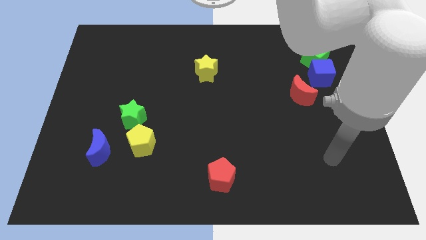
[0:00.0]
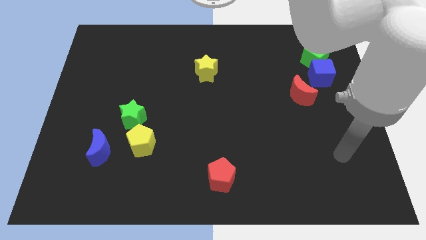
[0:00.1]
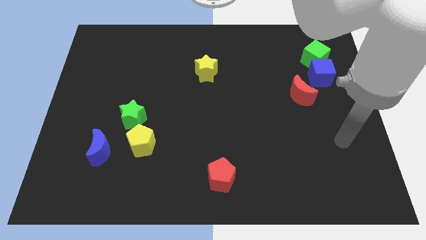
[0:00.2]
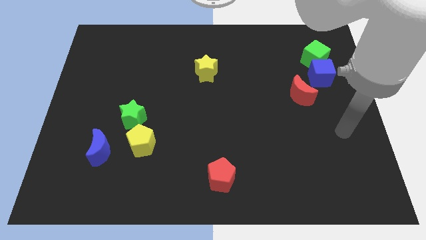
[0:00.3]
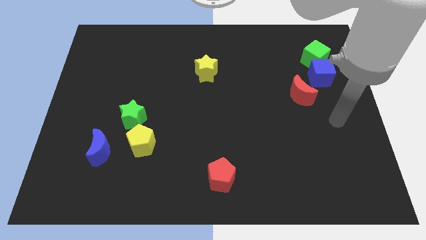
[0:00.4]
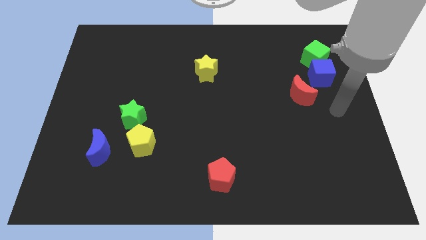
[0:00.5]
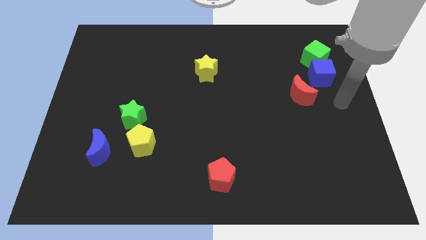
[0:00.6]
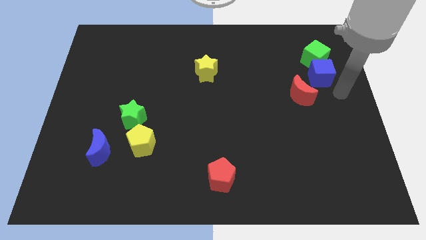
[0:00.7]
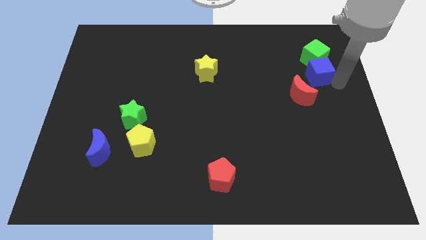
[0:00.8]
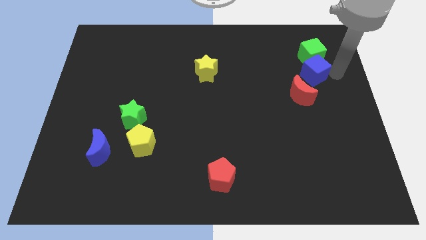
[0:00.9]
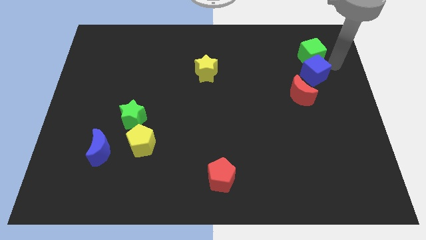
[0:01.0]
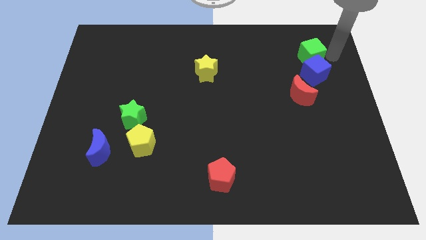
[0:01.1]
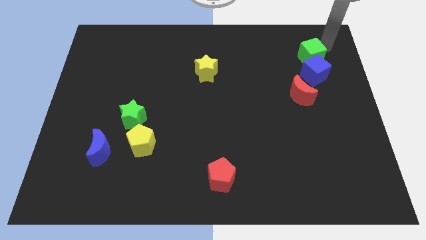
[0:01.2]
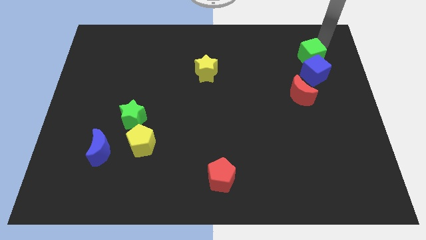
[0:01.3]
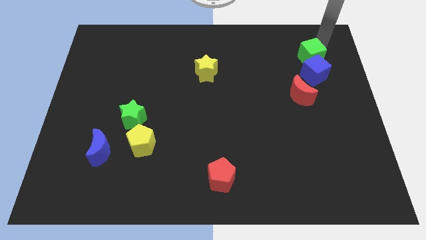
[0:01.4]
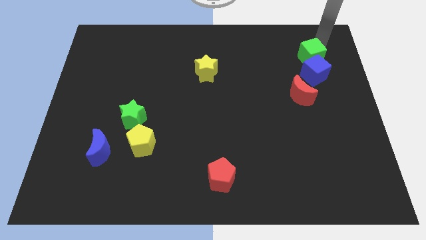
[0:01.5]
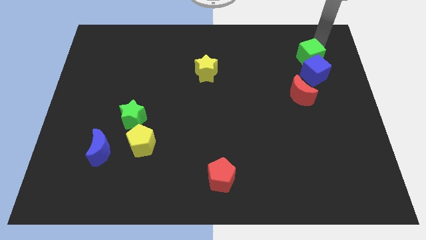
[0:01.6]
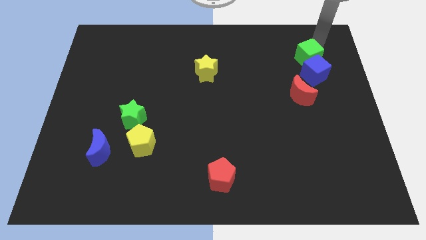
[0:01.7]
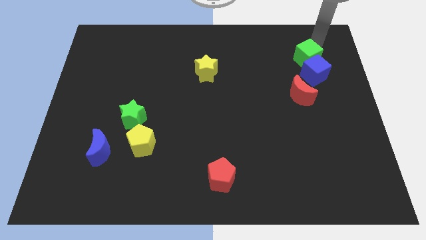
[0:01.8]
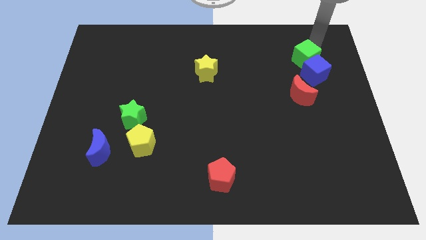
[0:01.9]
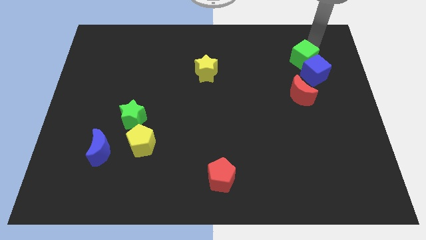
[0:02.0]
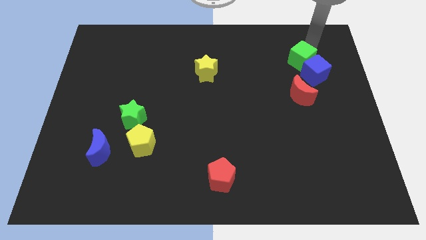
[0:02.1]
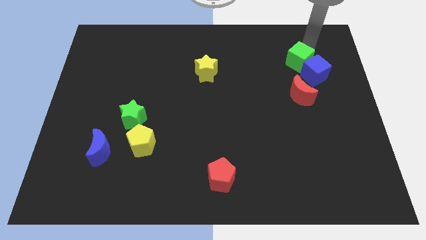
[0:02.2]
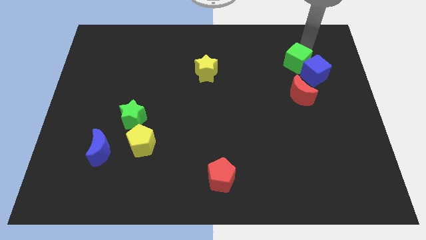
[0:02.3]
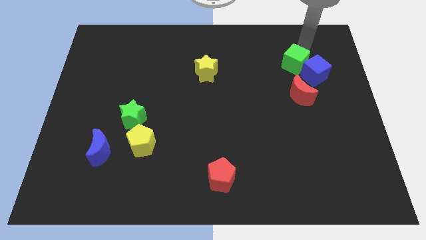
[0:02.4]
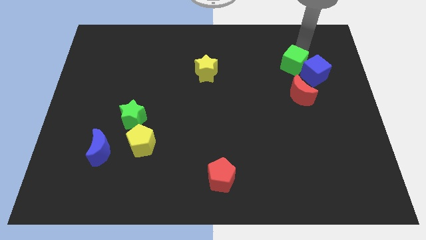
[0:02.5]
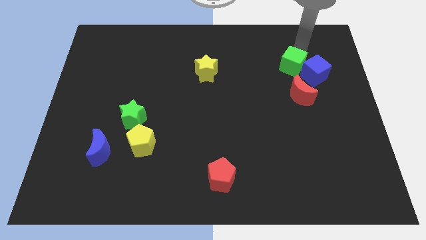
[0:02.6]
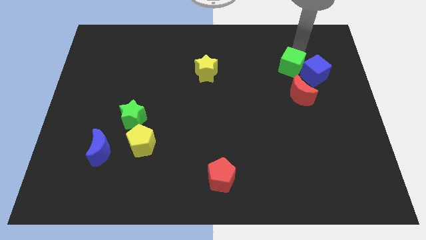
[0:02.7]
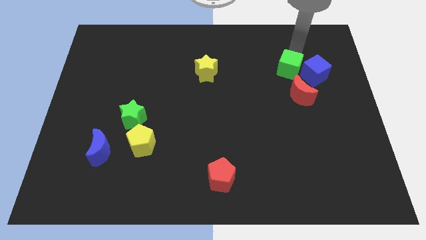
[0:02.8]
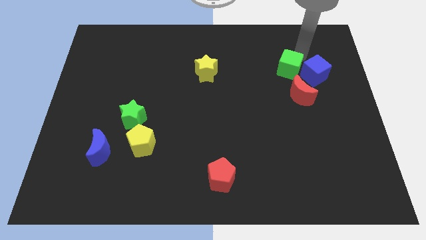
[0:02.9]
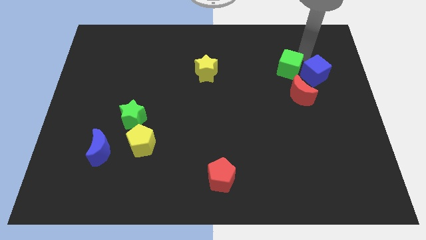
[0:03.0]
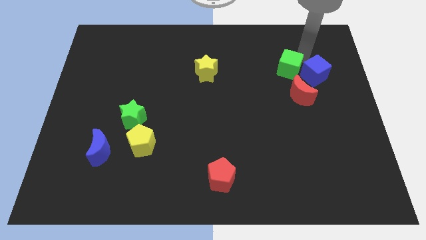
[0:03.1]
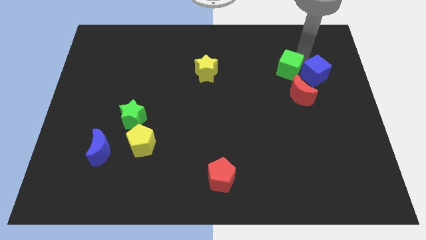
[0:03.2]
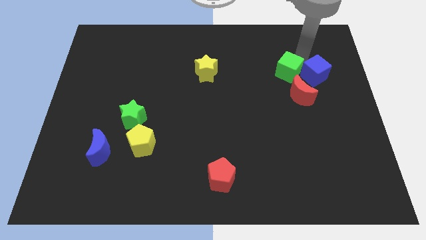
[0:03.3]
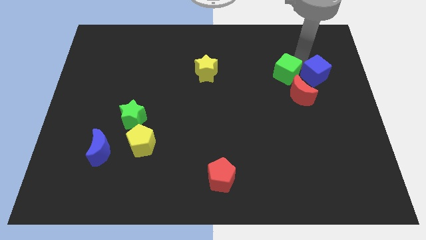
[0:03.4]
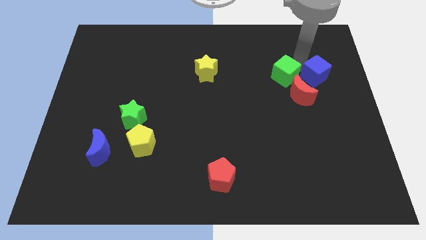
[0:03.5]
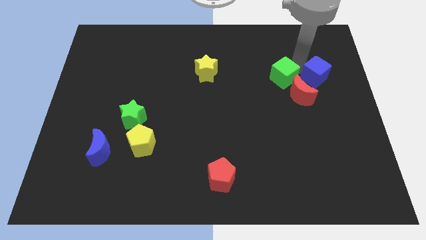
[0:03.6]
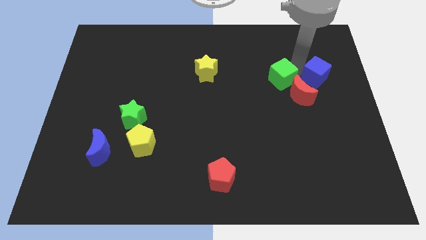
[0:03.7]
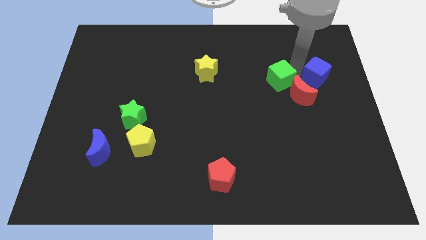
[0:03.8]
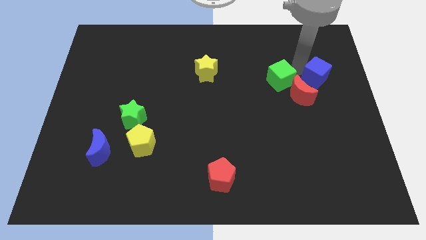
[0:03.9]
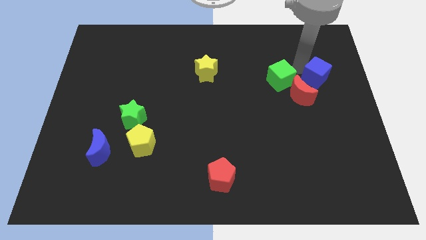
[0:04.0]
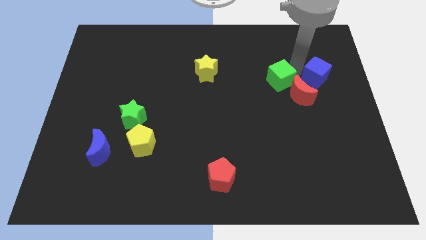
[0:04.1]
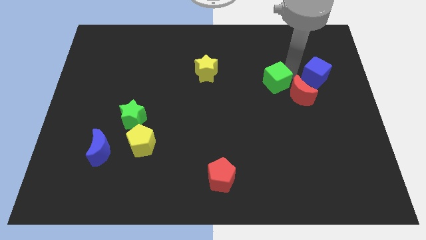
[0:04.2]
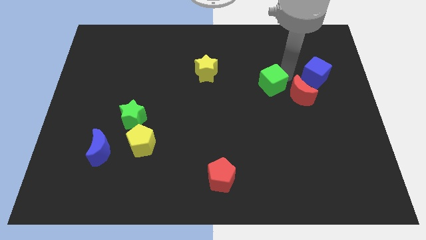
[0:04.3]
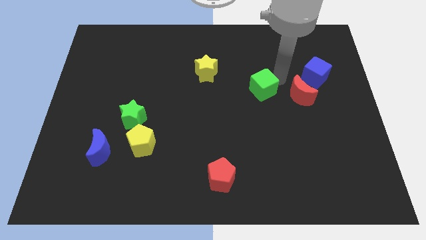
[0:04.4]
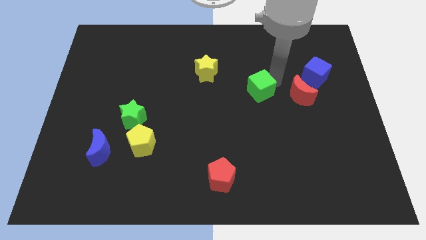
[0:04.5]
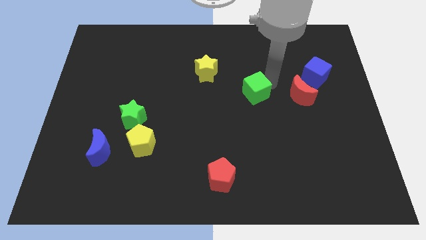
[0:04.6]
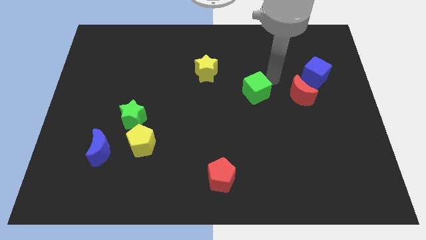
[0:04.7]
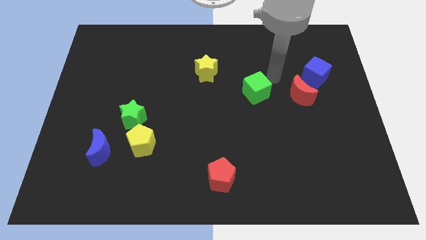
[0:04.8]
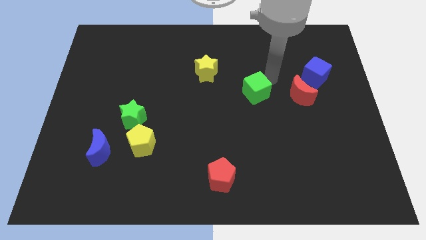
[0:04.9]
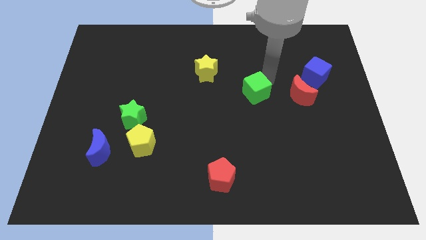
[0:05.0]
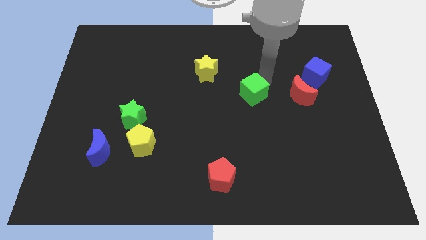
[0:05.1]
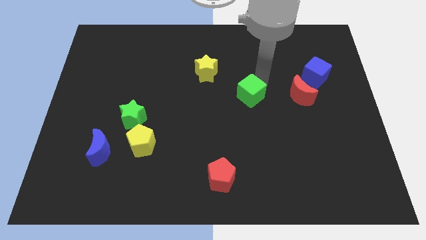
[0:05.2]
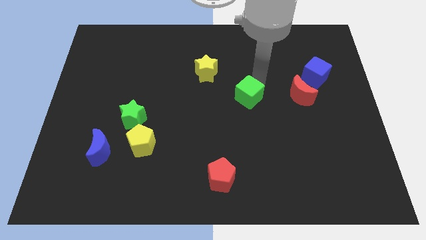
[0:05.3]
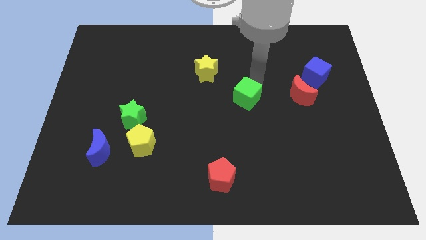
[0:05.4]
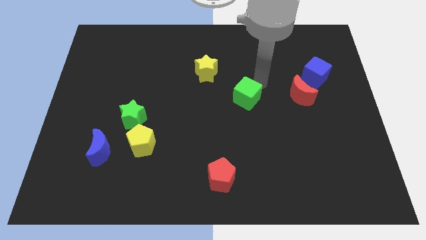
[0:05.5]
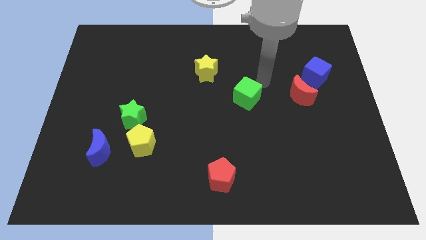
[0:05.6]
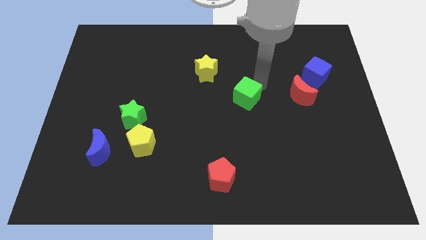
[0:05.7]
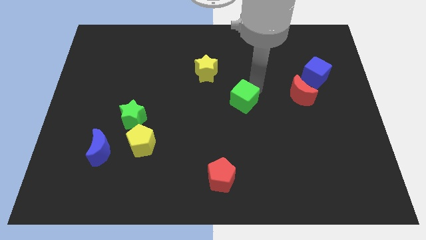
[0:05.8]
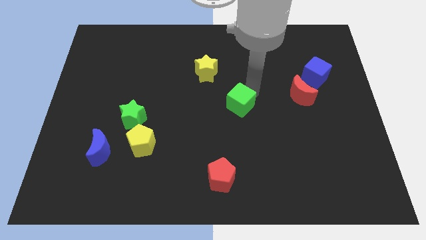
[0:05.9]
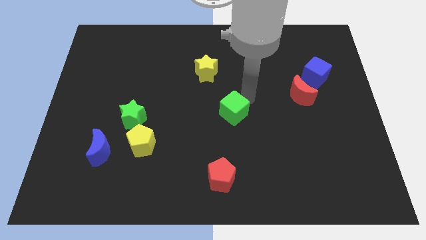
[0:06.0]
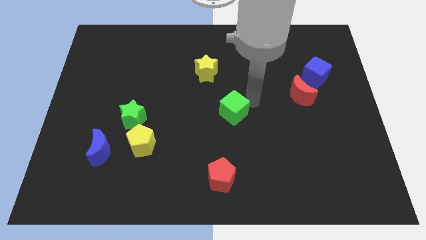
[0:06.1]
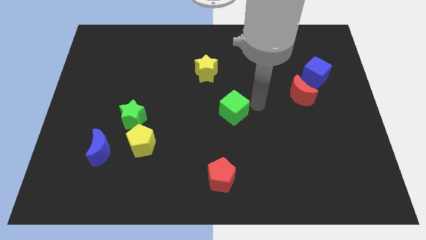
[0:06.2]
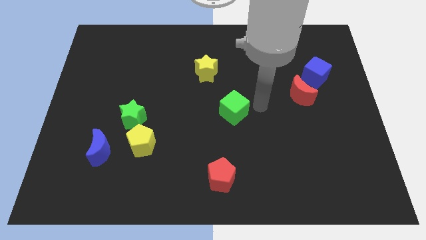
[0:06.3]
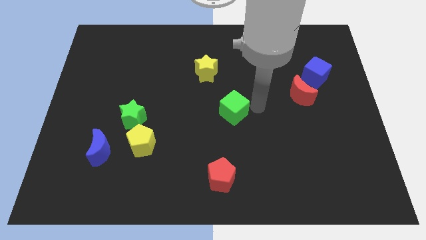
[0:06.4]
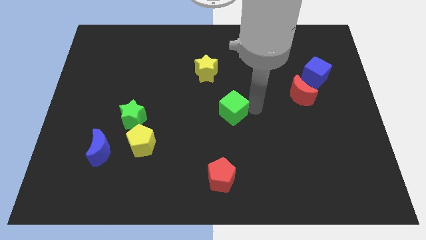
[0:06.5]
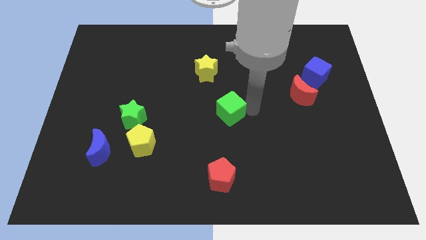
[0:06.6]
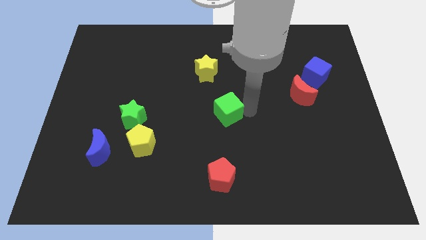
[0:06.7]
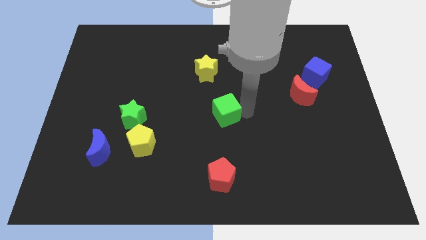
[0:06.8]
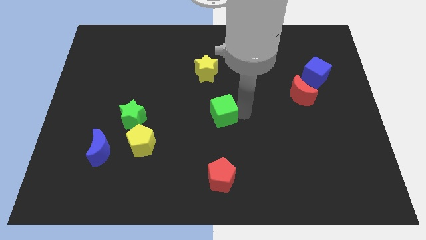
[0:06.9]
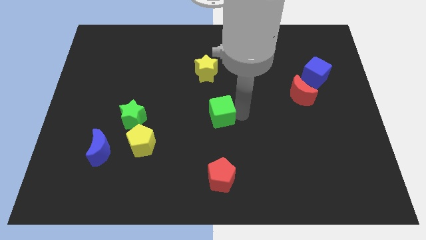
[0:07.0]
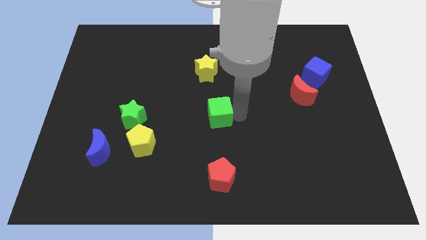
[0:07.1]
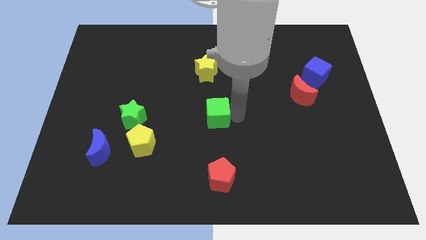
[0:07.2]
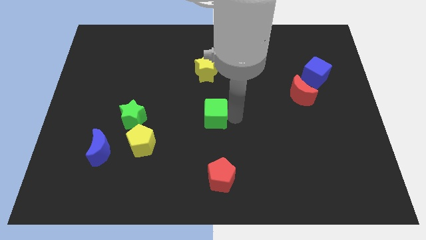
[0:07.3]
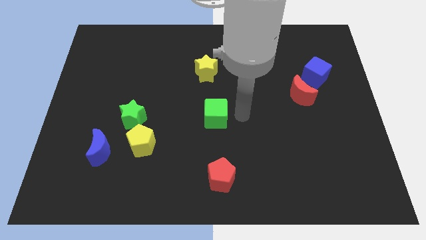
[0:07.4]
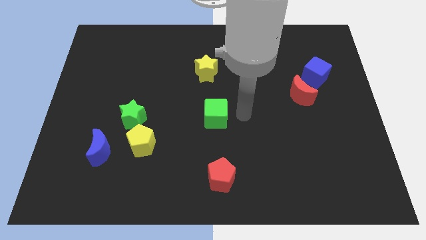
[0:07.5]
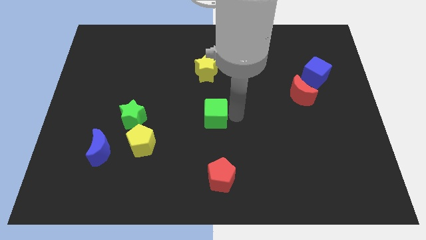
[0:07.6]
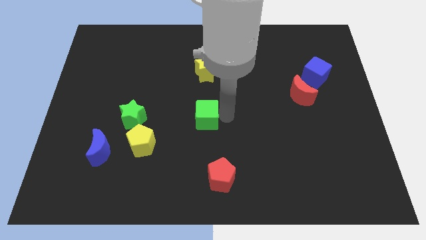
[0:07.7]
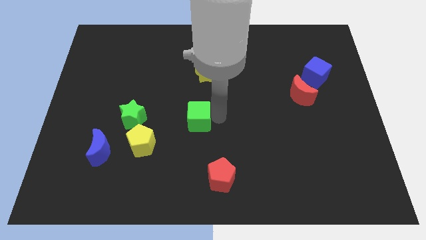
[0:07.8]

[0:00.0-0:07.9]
push the green cube right of the green star
